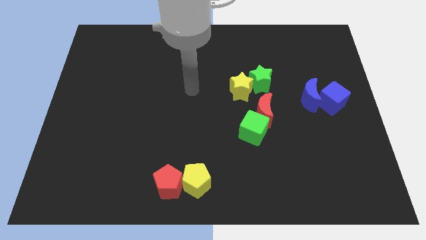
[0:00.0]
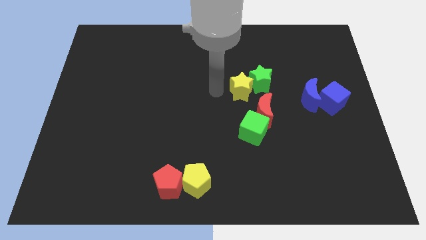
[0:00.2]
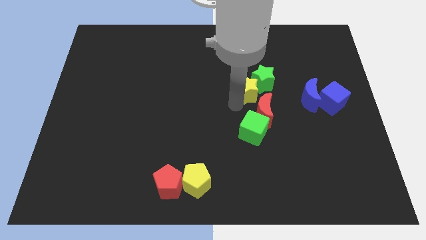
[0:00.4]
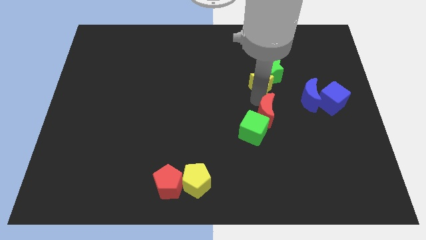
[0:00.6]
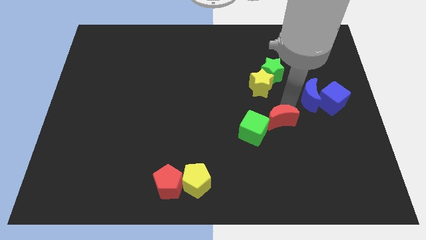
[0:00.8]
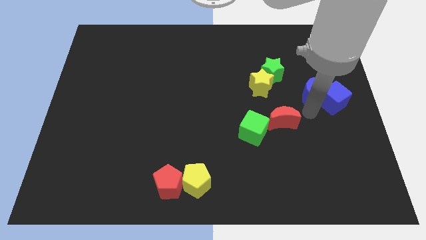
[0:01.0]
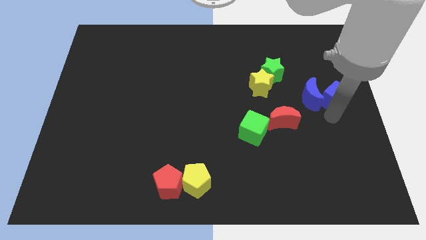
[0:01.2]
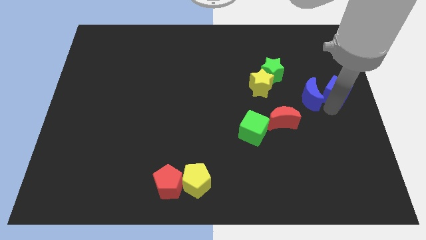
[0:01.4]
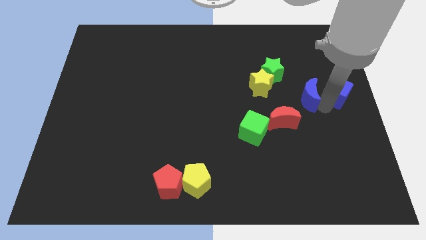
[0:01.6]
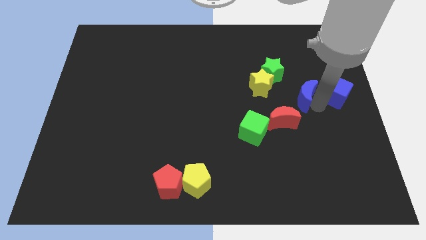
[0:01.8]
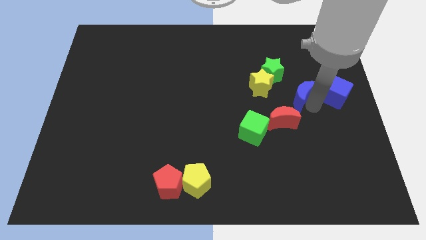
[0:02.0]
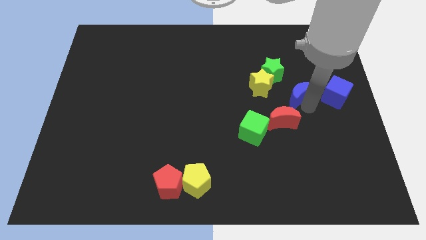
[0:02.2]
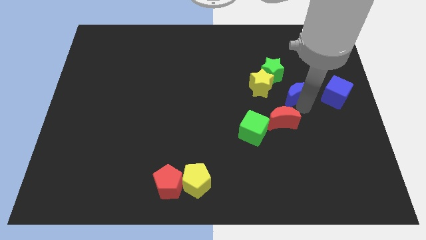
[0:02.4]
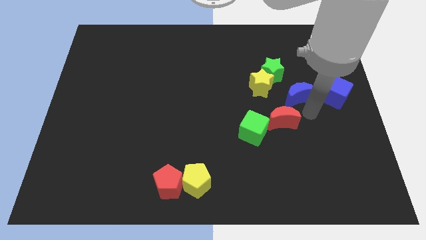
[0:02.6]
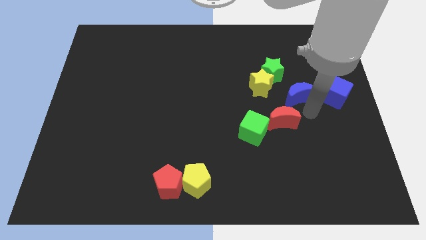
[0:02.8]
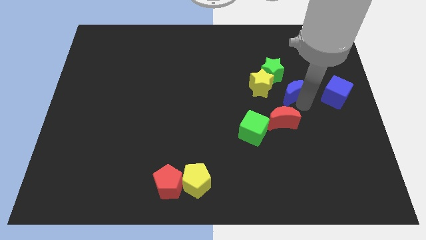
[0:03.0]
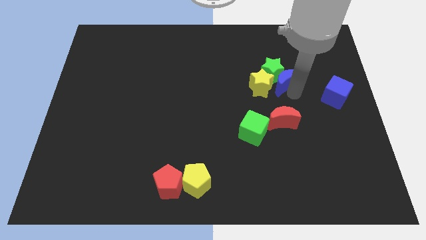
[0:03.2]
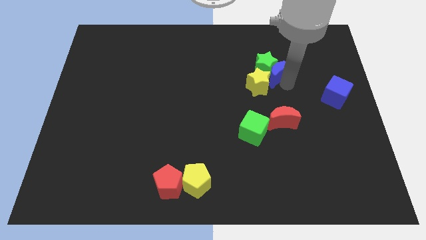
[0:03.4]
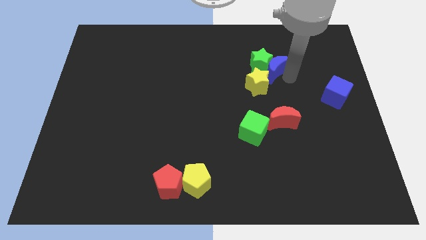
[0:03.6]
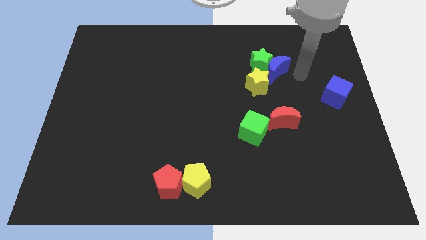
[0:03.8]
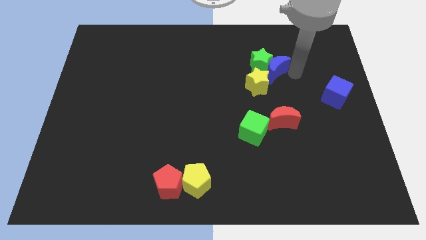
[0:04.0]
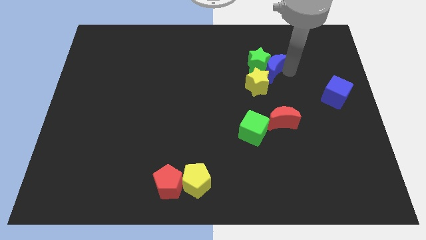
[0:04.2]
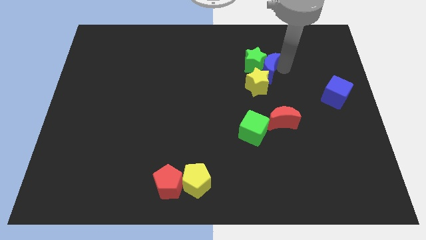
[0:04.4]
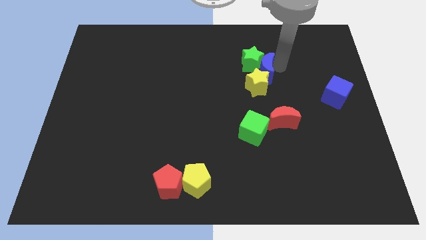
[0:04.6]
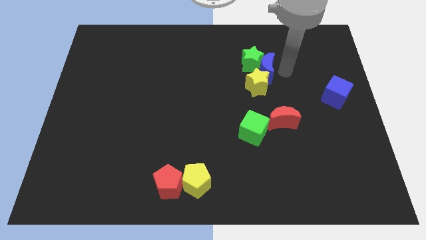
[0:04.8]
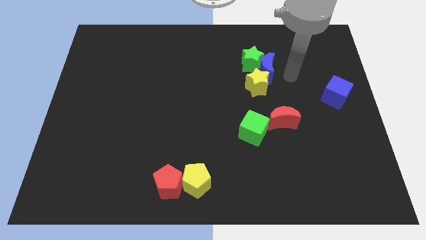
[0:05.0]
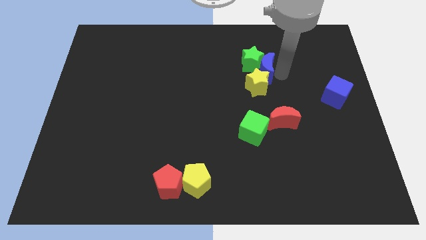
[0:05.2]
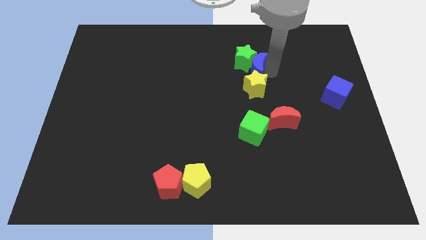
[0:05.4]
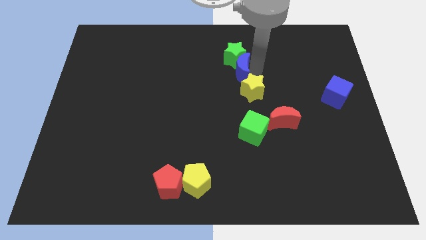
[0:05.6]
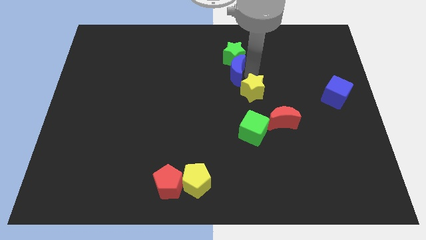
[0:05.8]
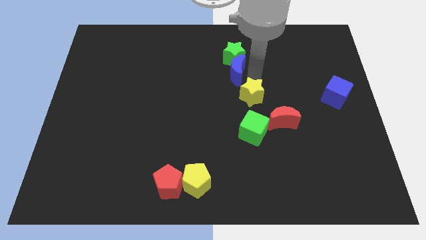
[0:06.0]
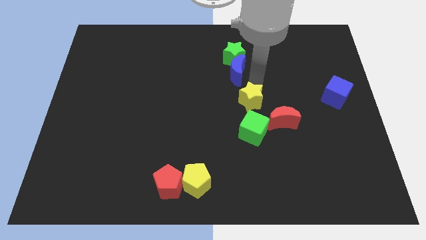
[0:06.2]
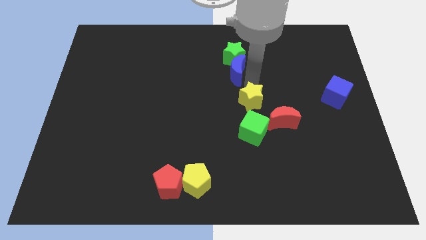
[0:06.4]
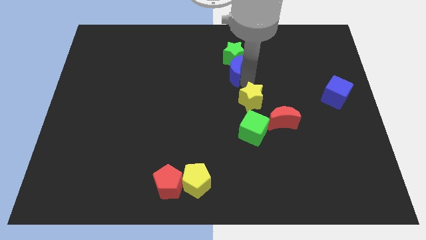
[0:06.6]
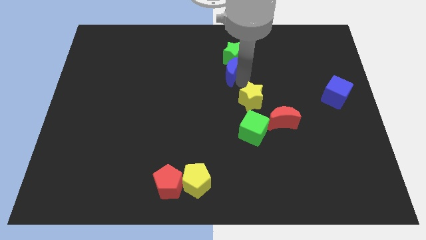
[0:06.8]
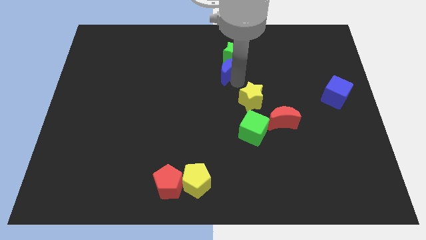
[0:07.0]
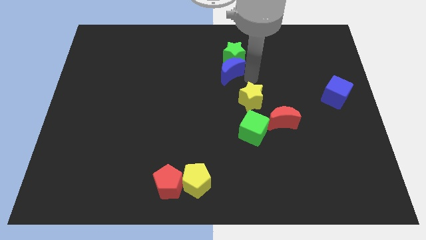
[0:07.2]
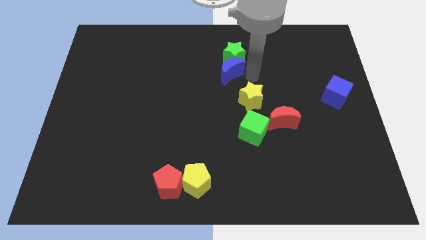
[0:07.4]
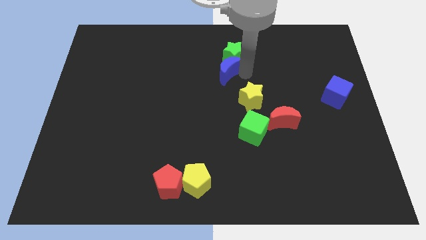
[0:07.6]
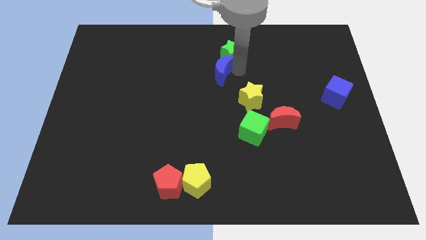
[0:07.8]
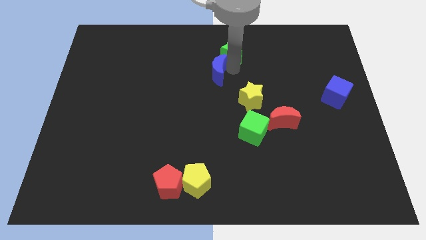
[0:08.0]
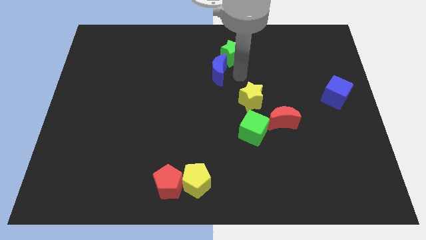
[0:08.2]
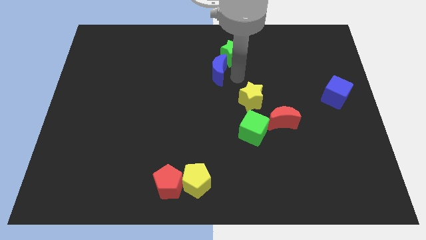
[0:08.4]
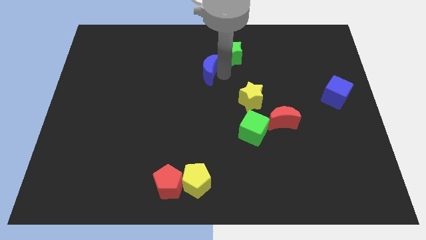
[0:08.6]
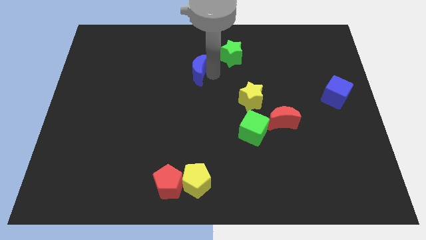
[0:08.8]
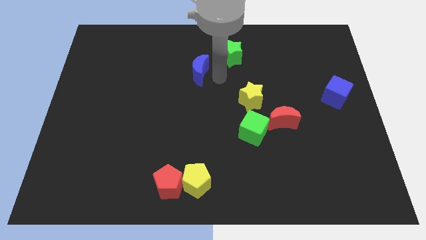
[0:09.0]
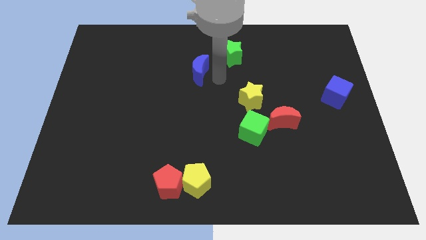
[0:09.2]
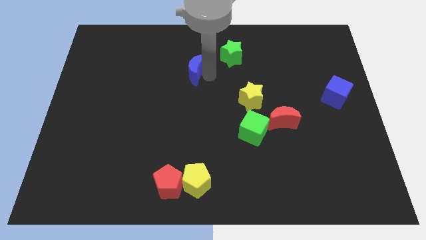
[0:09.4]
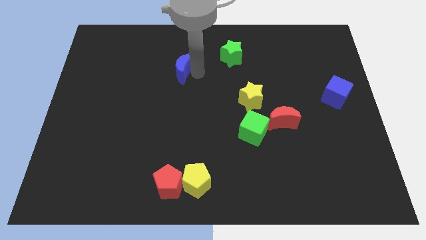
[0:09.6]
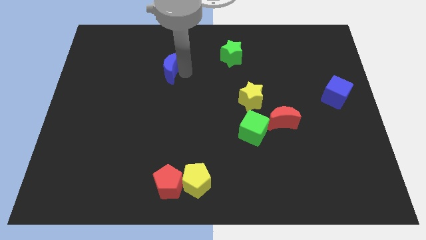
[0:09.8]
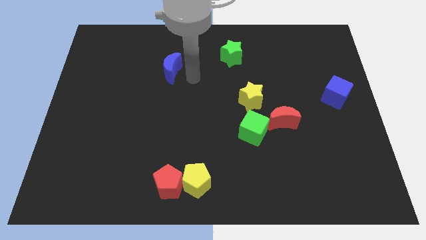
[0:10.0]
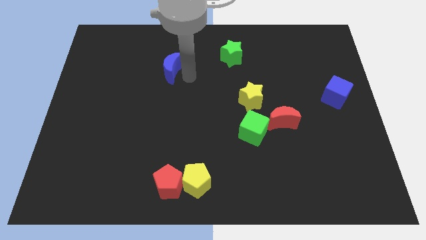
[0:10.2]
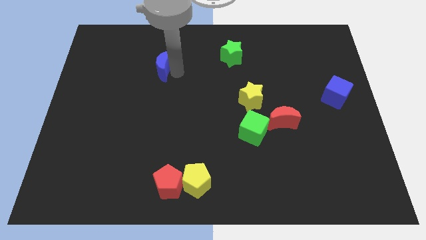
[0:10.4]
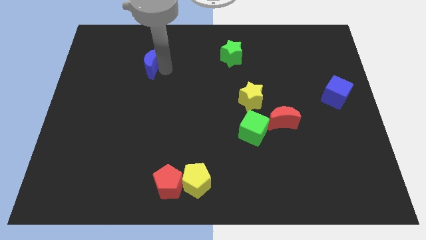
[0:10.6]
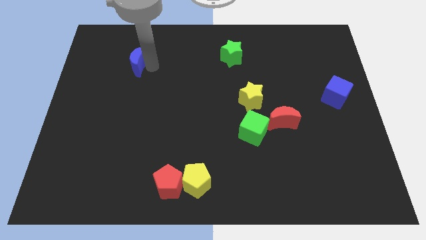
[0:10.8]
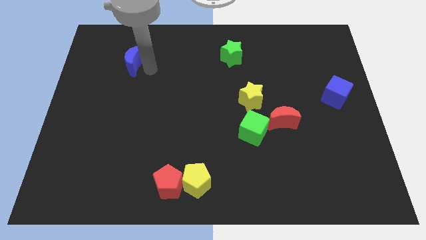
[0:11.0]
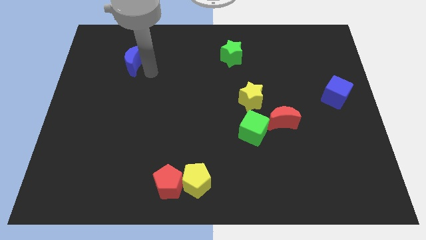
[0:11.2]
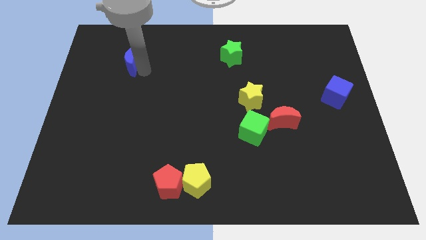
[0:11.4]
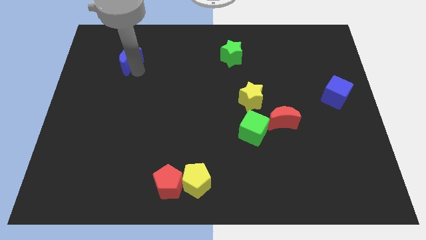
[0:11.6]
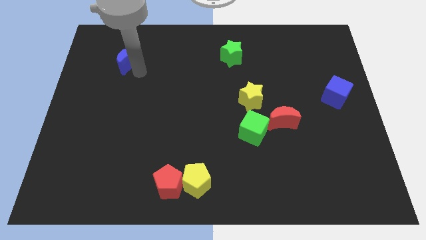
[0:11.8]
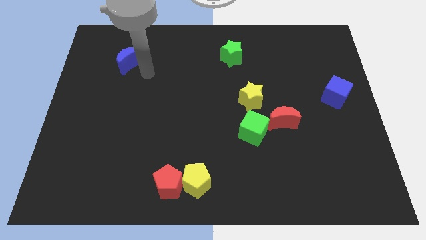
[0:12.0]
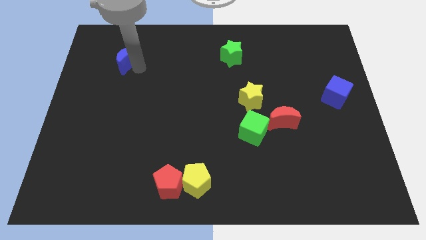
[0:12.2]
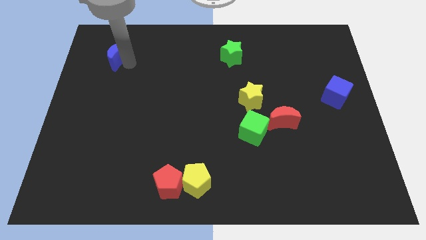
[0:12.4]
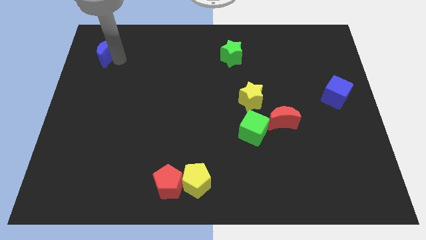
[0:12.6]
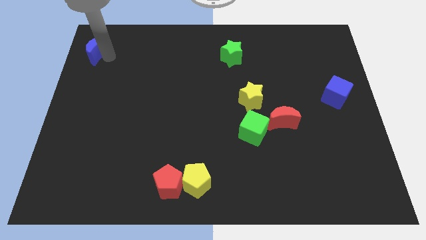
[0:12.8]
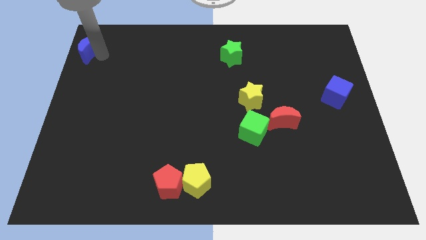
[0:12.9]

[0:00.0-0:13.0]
move the blue moon to the top left
